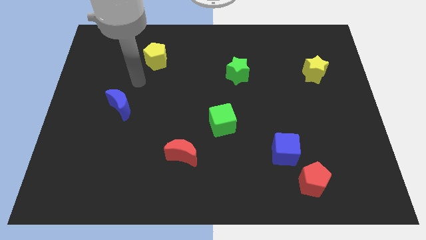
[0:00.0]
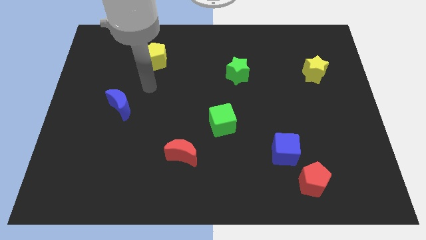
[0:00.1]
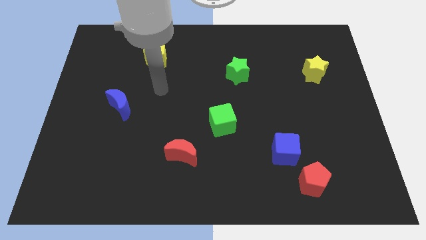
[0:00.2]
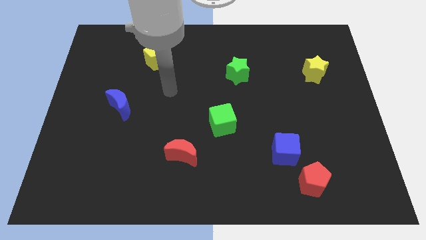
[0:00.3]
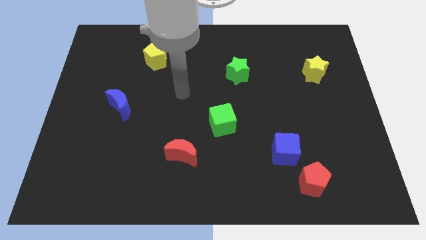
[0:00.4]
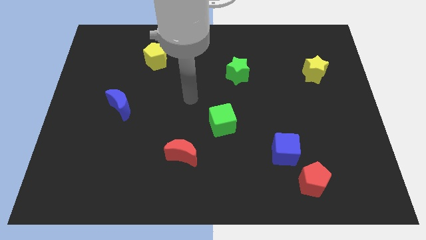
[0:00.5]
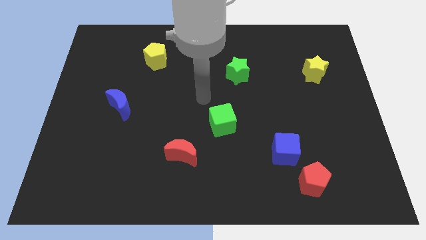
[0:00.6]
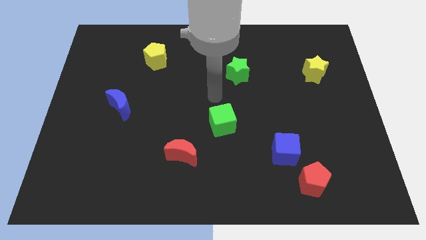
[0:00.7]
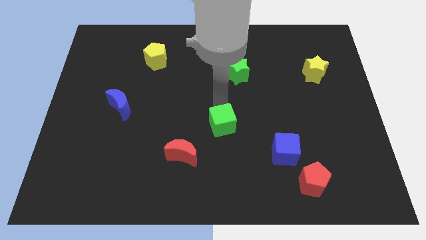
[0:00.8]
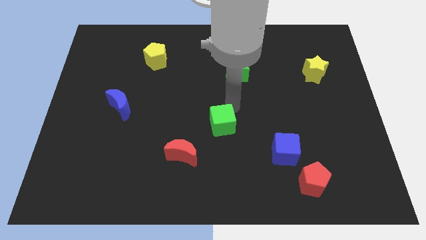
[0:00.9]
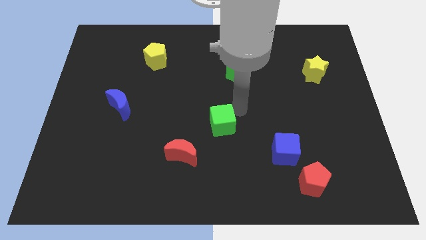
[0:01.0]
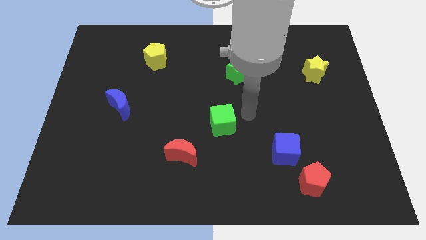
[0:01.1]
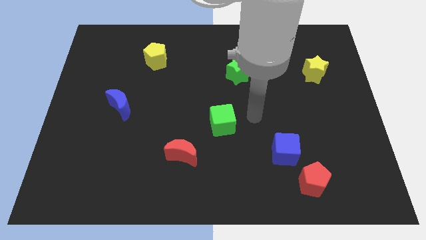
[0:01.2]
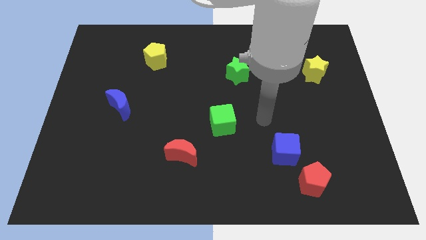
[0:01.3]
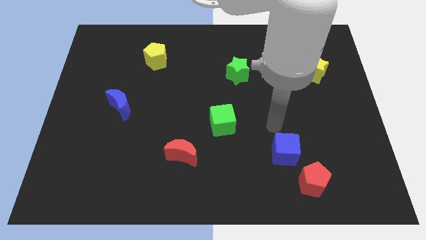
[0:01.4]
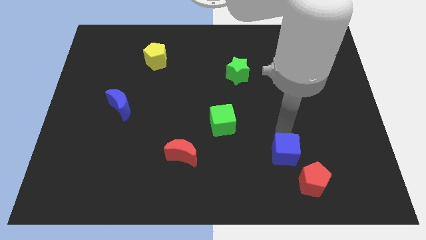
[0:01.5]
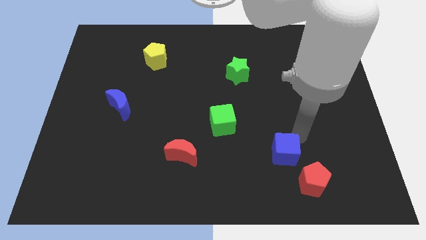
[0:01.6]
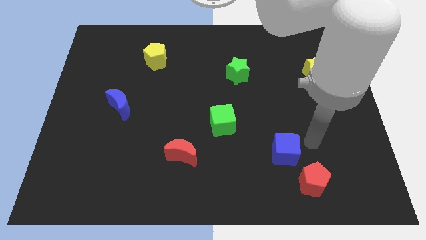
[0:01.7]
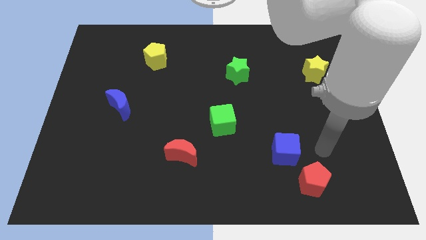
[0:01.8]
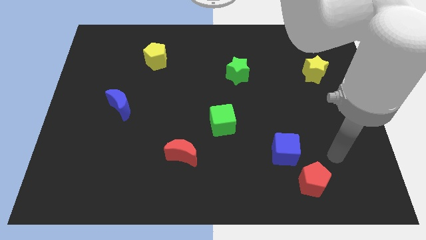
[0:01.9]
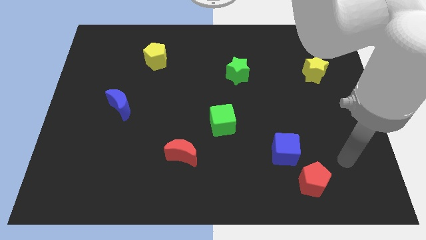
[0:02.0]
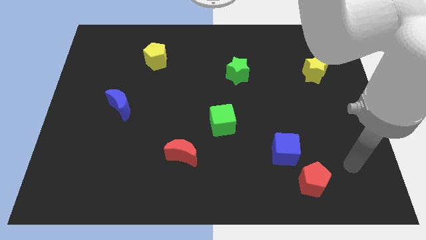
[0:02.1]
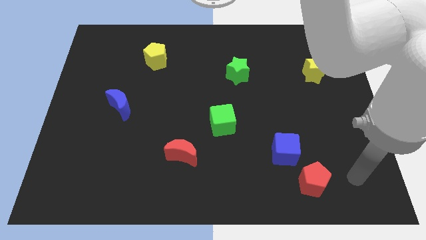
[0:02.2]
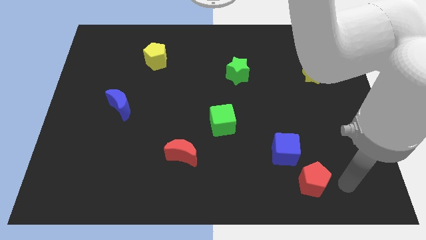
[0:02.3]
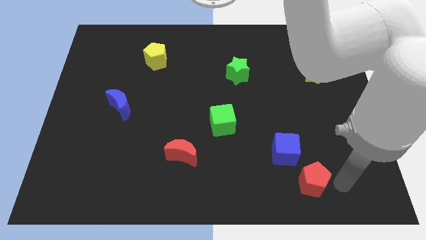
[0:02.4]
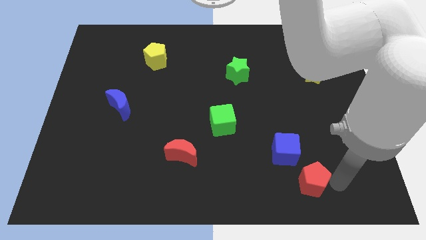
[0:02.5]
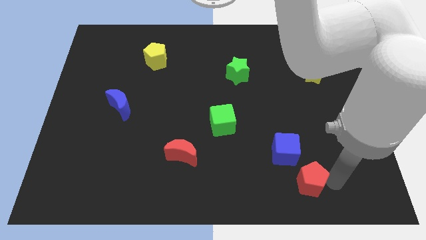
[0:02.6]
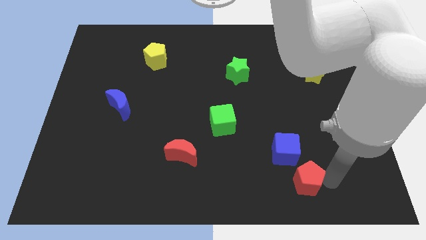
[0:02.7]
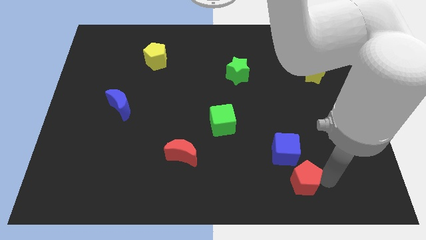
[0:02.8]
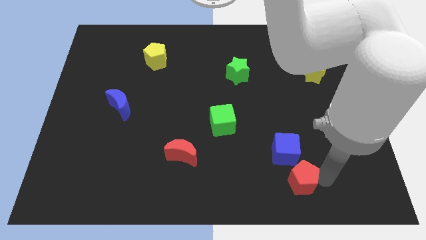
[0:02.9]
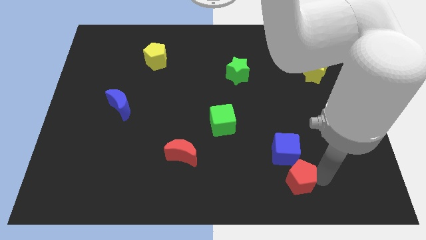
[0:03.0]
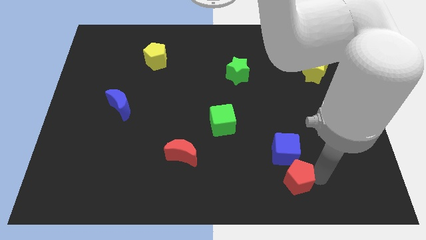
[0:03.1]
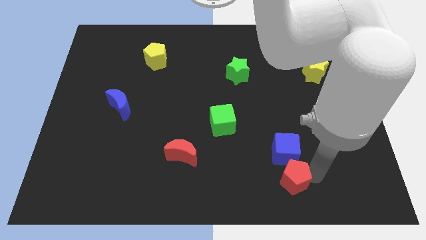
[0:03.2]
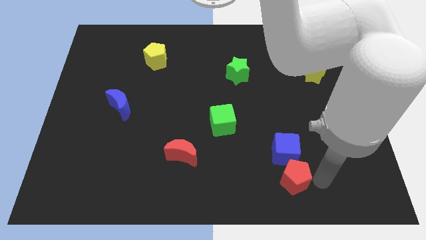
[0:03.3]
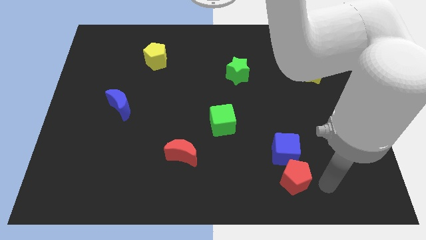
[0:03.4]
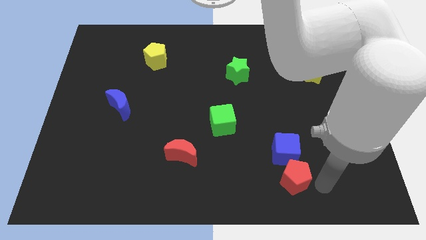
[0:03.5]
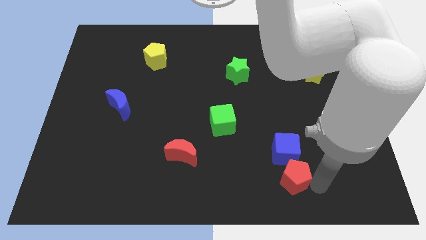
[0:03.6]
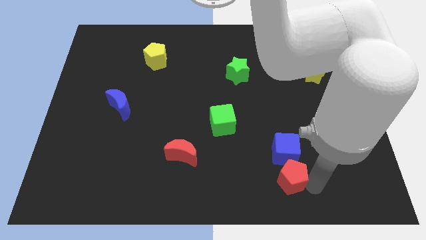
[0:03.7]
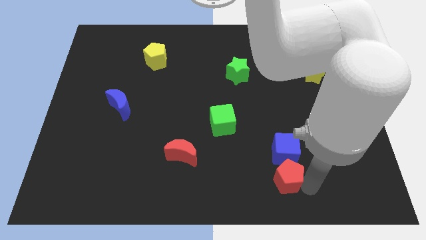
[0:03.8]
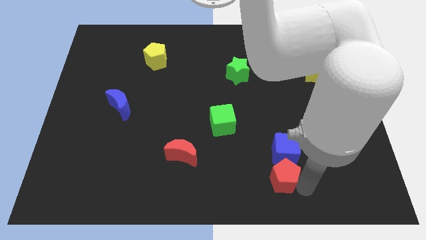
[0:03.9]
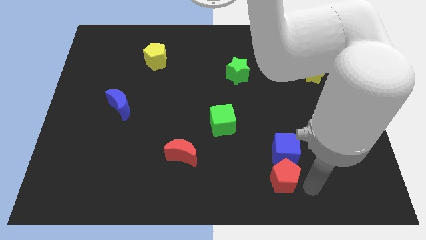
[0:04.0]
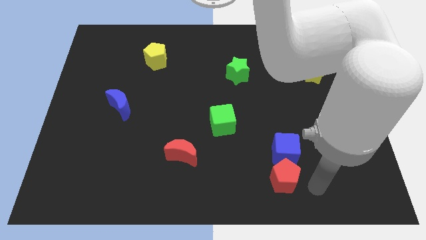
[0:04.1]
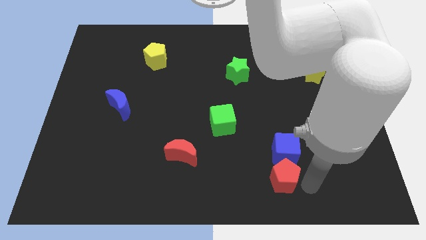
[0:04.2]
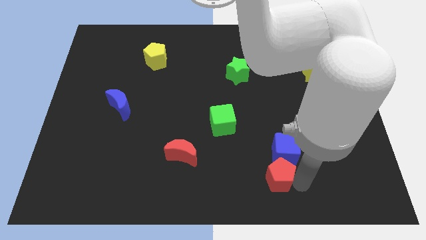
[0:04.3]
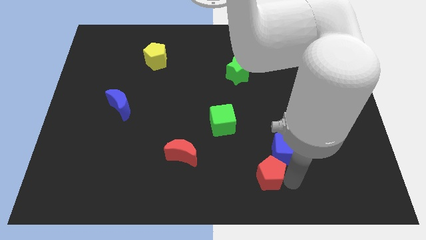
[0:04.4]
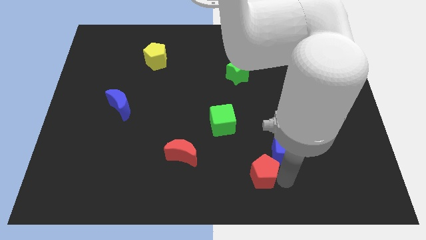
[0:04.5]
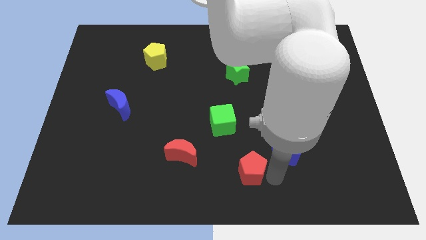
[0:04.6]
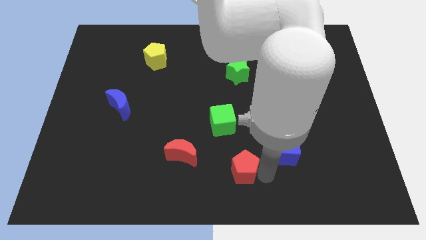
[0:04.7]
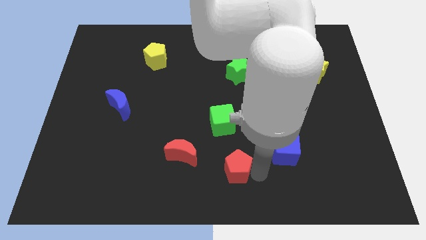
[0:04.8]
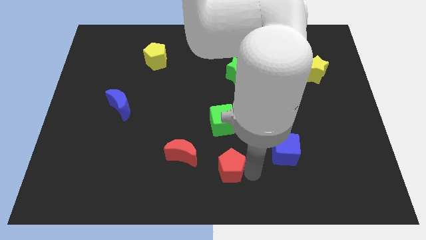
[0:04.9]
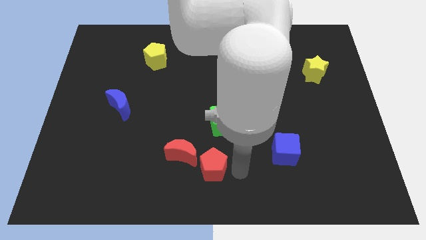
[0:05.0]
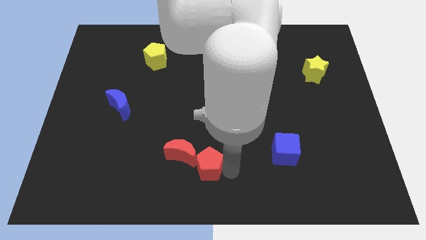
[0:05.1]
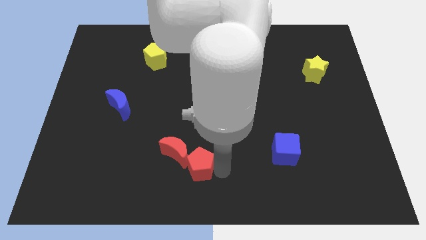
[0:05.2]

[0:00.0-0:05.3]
push the red pentagon close to the red moon

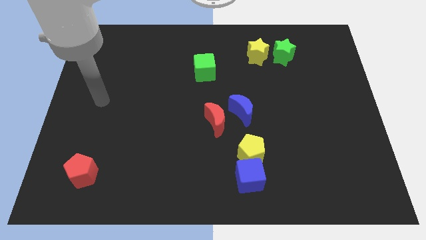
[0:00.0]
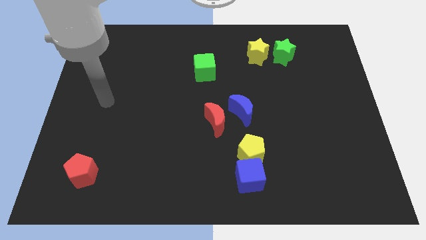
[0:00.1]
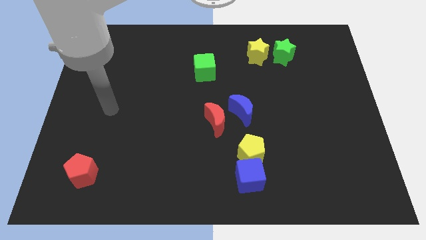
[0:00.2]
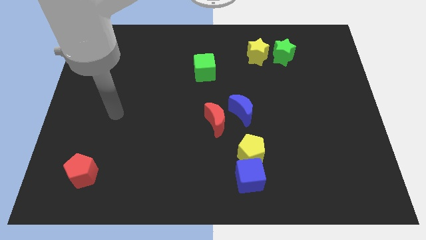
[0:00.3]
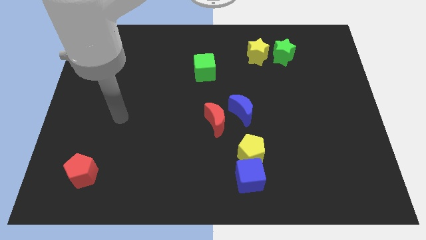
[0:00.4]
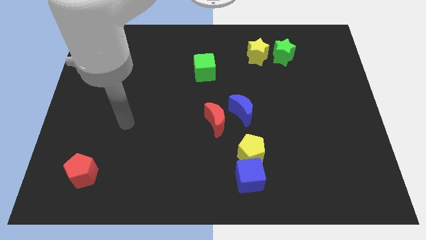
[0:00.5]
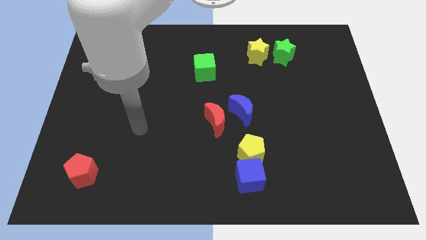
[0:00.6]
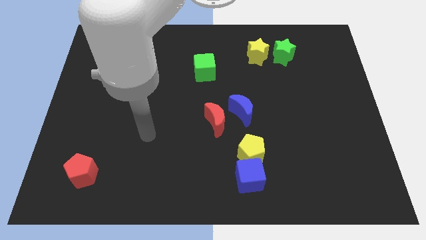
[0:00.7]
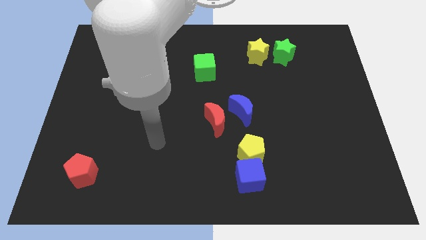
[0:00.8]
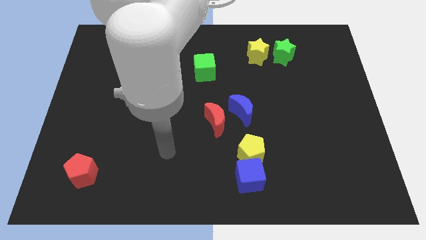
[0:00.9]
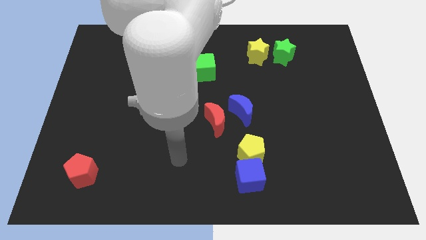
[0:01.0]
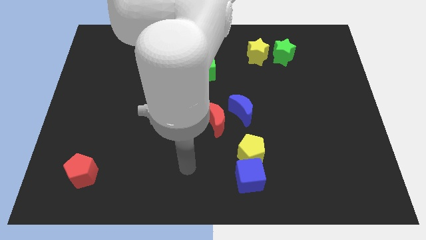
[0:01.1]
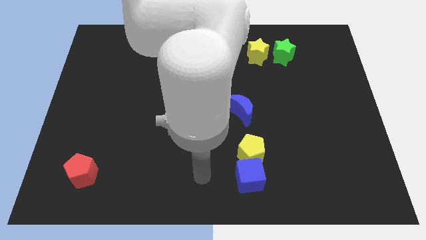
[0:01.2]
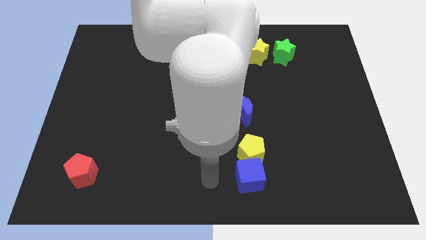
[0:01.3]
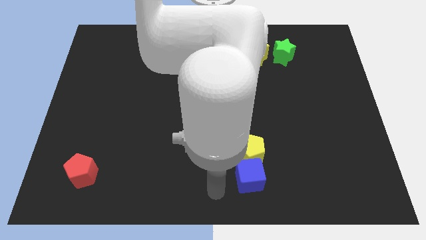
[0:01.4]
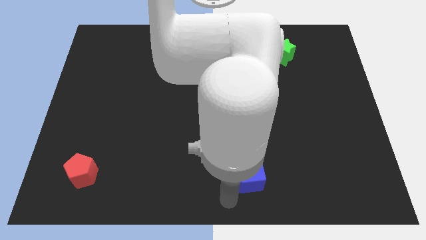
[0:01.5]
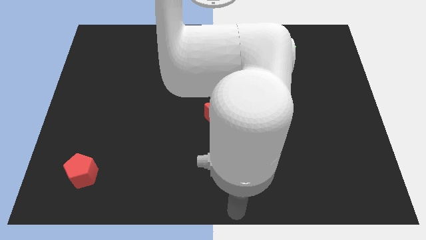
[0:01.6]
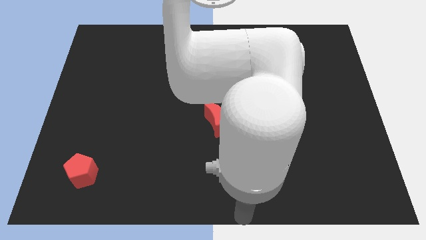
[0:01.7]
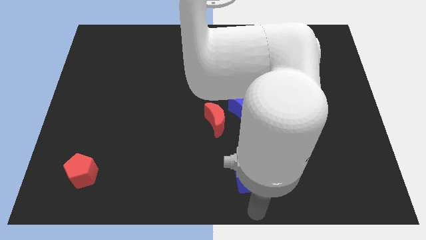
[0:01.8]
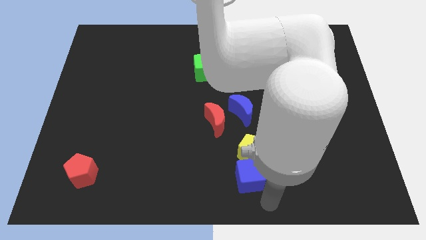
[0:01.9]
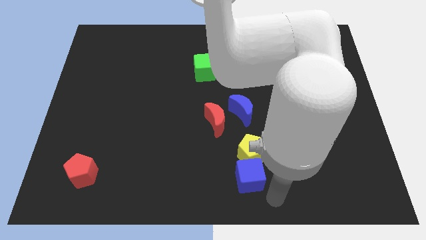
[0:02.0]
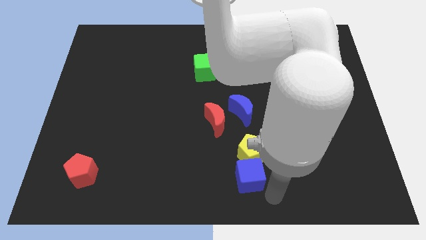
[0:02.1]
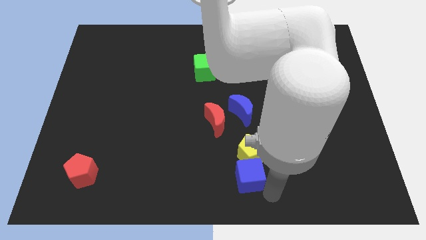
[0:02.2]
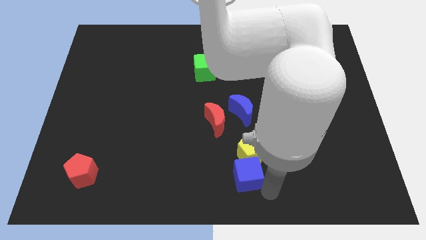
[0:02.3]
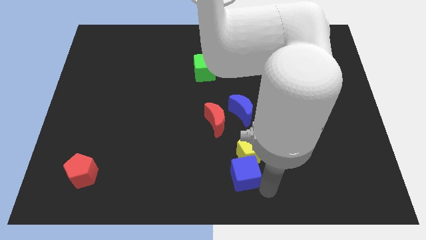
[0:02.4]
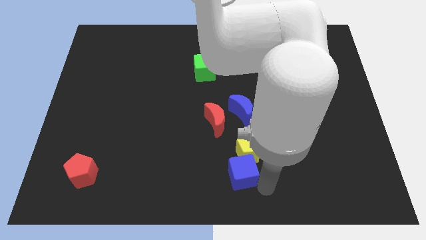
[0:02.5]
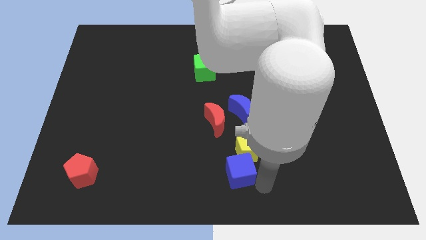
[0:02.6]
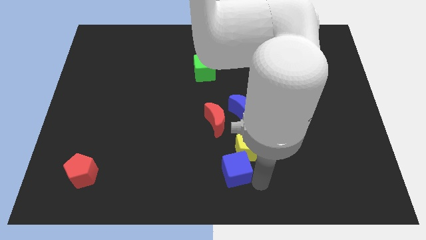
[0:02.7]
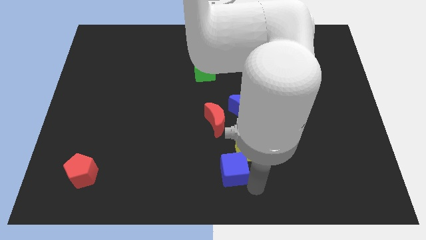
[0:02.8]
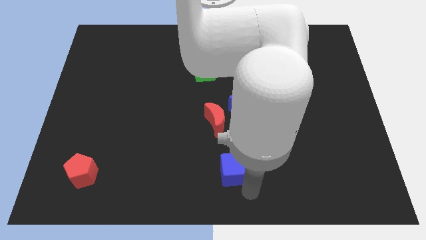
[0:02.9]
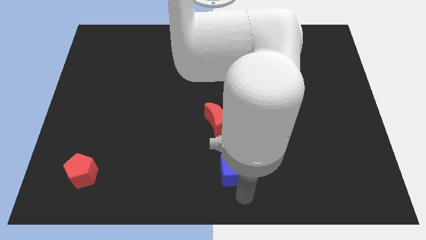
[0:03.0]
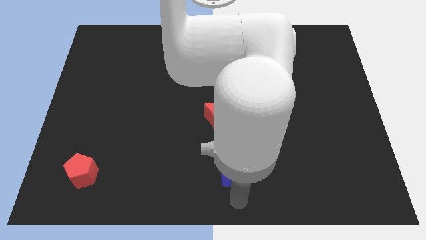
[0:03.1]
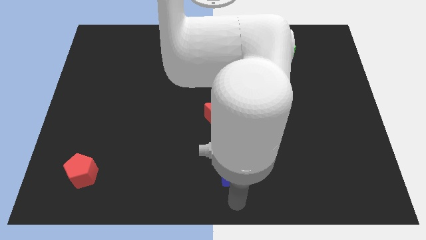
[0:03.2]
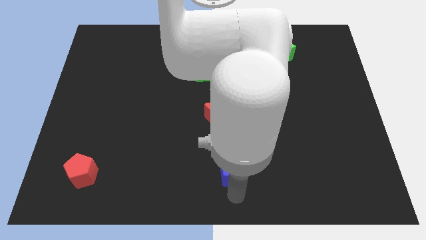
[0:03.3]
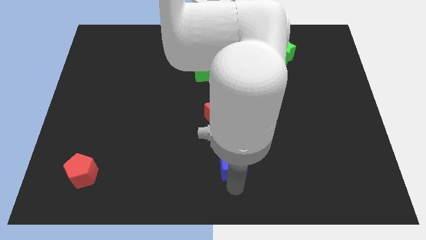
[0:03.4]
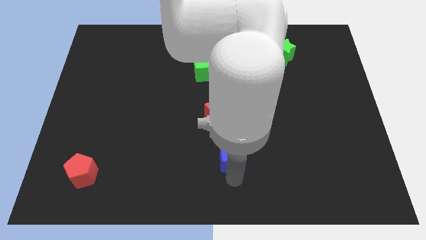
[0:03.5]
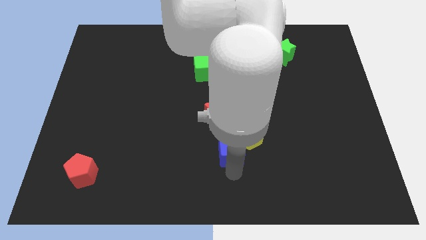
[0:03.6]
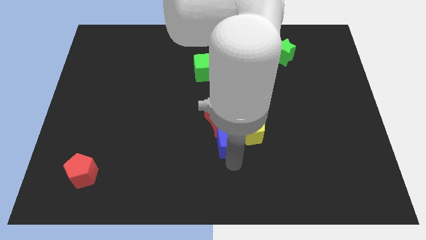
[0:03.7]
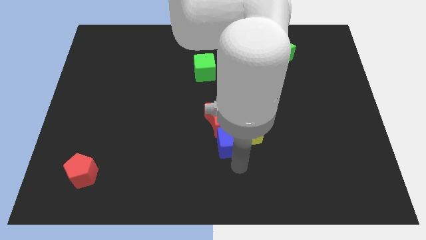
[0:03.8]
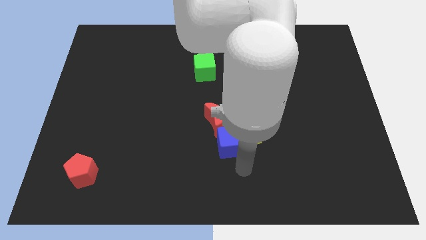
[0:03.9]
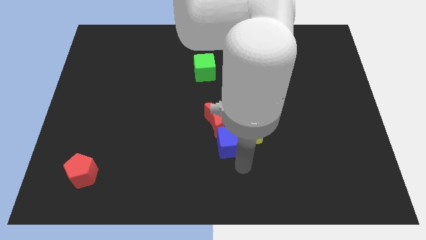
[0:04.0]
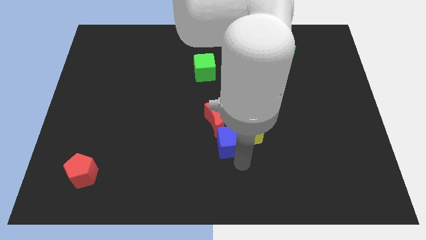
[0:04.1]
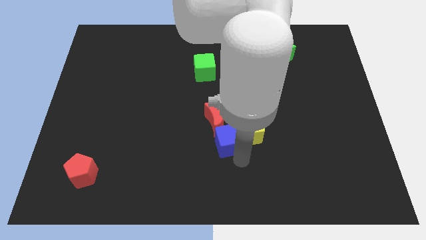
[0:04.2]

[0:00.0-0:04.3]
slide the blue cube to the red moon
